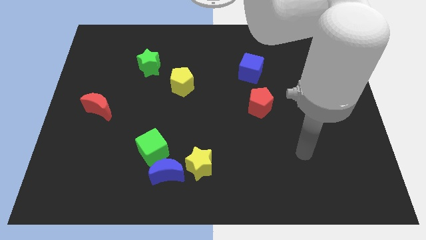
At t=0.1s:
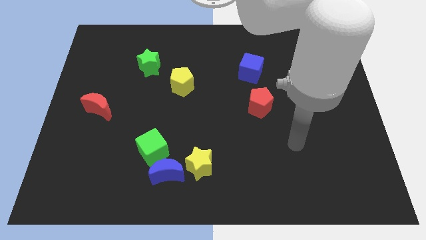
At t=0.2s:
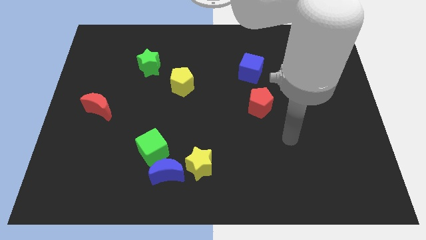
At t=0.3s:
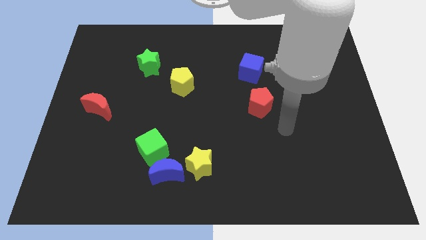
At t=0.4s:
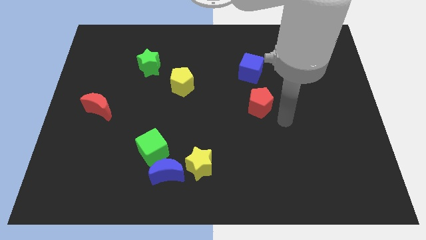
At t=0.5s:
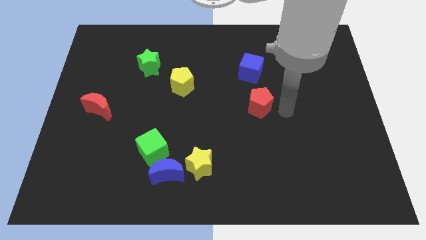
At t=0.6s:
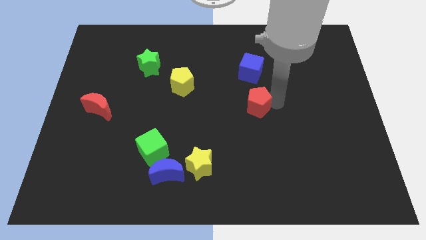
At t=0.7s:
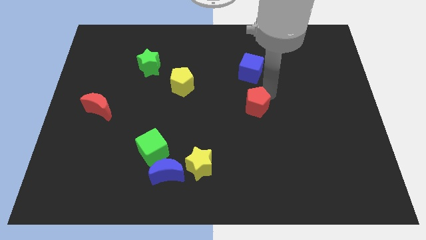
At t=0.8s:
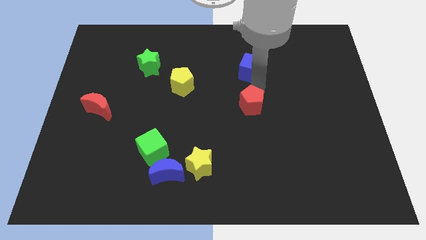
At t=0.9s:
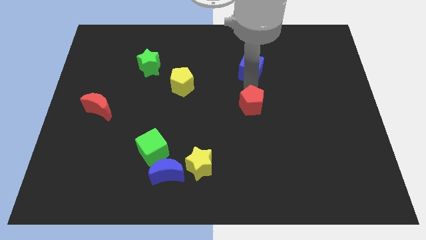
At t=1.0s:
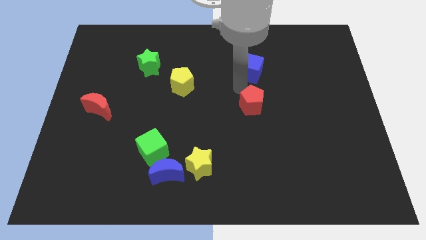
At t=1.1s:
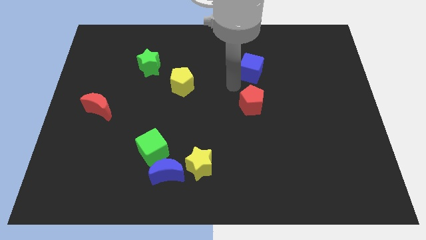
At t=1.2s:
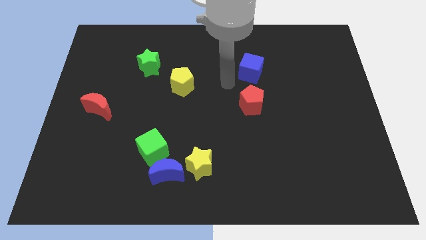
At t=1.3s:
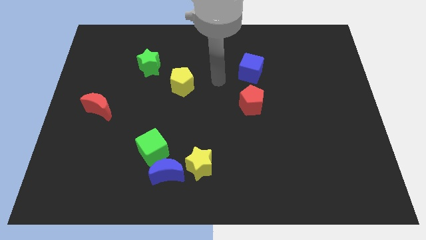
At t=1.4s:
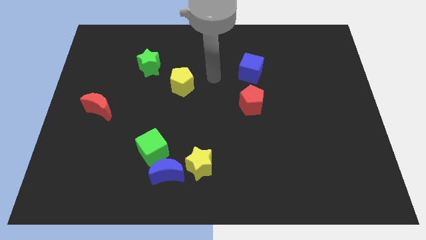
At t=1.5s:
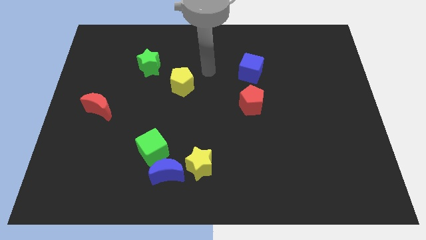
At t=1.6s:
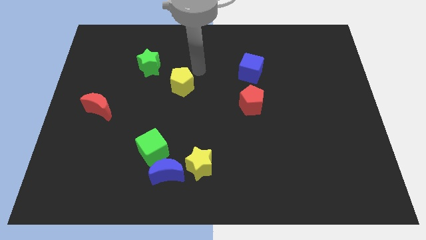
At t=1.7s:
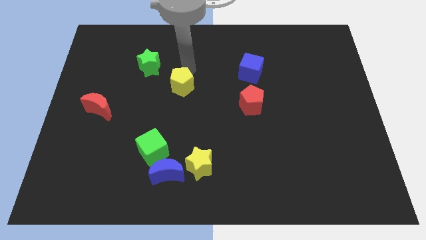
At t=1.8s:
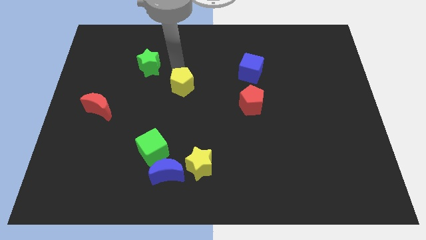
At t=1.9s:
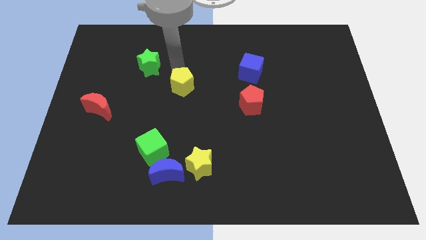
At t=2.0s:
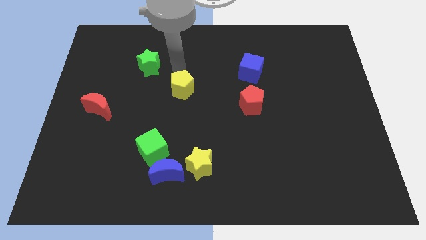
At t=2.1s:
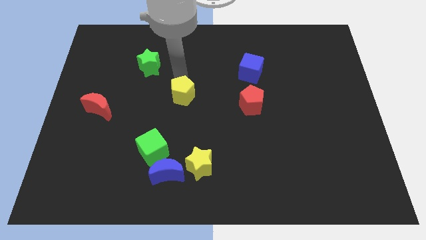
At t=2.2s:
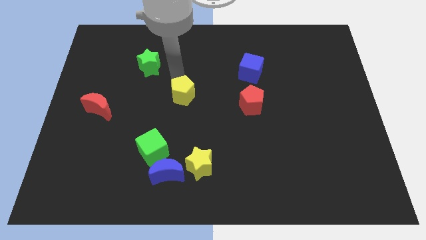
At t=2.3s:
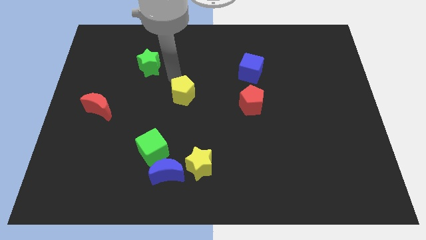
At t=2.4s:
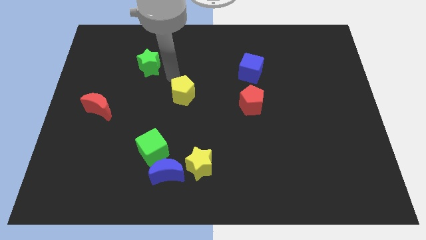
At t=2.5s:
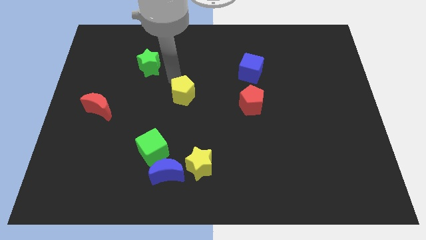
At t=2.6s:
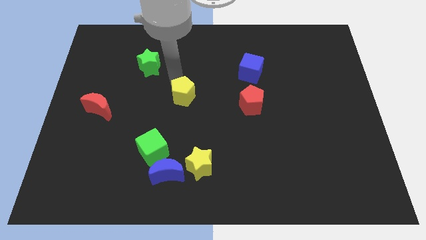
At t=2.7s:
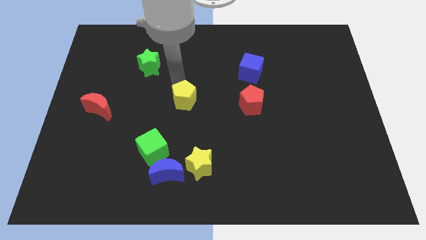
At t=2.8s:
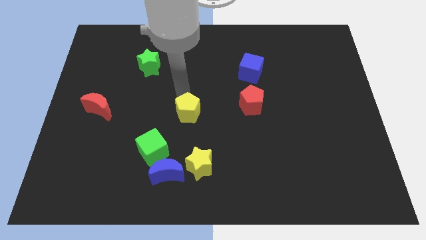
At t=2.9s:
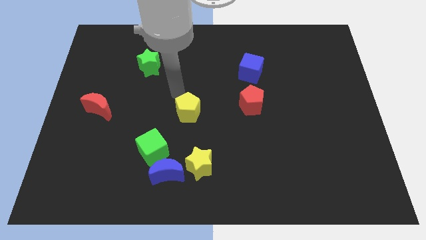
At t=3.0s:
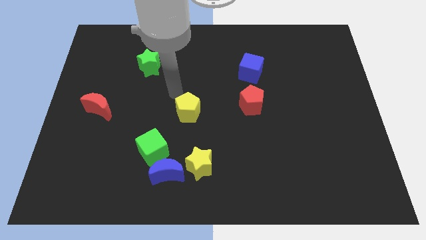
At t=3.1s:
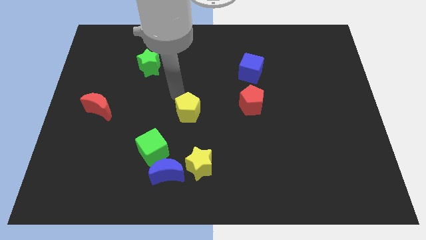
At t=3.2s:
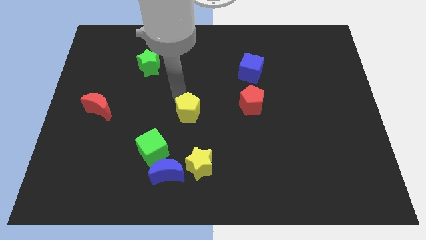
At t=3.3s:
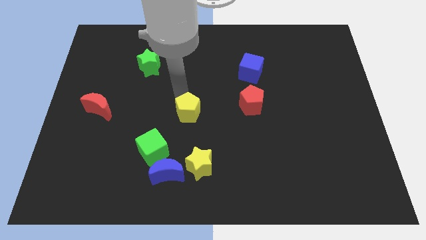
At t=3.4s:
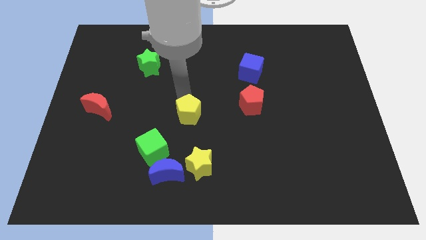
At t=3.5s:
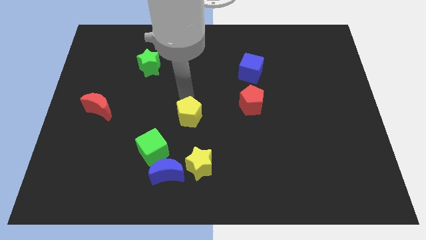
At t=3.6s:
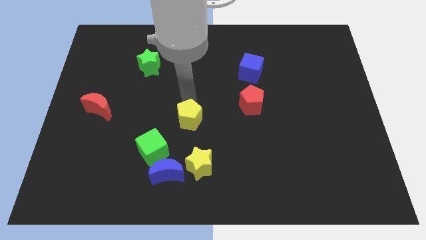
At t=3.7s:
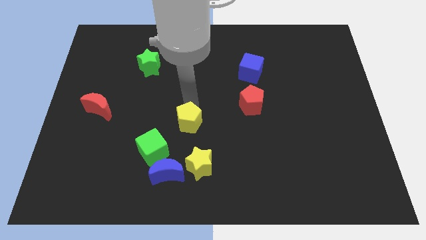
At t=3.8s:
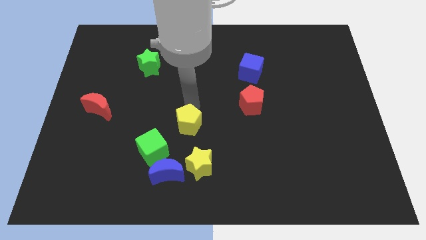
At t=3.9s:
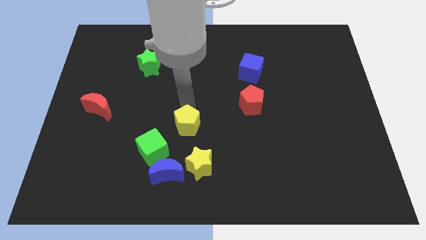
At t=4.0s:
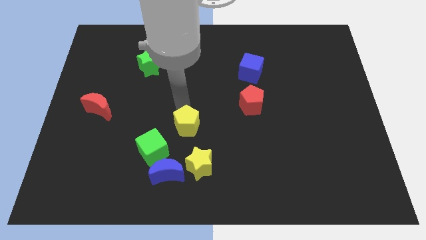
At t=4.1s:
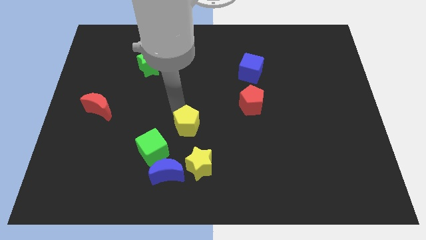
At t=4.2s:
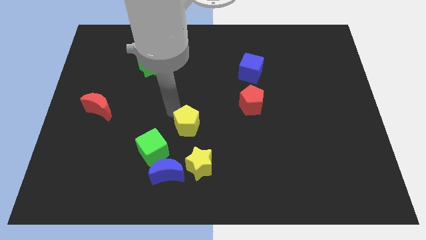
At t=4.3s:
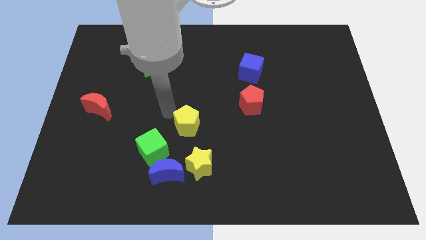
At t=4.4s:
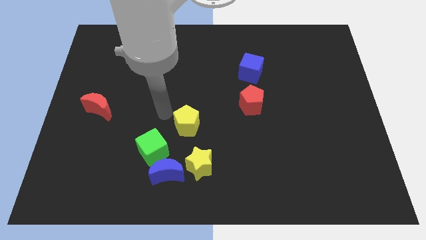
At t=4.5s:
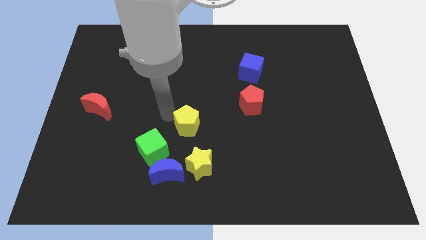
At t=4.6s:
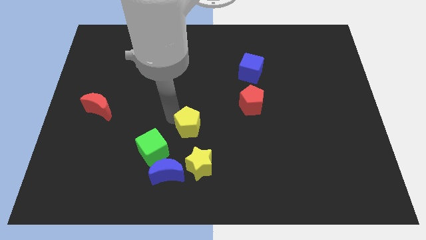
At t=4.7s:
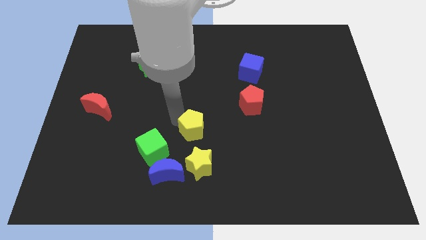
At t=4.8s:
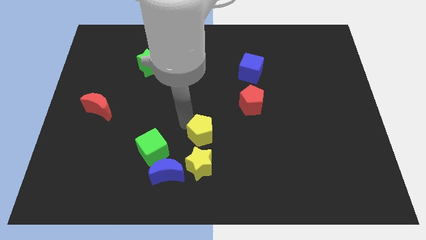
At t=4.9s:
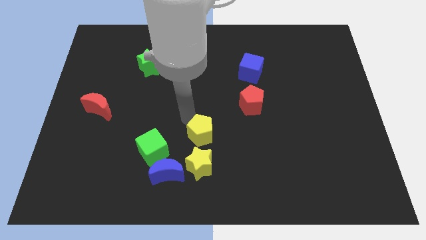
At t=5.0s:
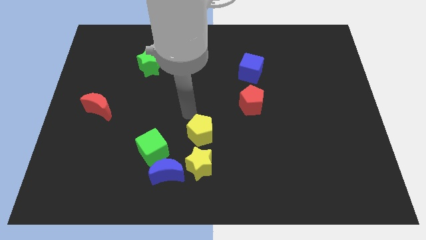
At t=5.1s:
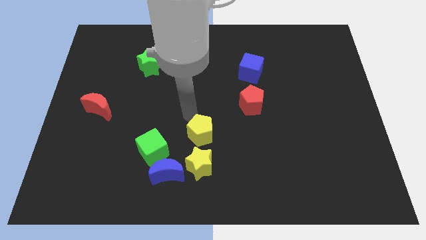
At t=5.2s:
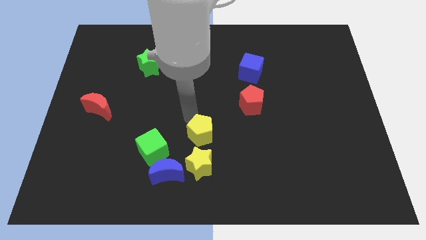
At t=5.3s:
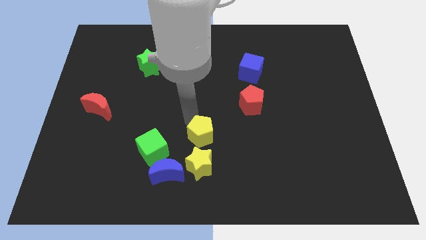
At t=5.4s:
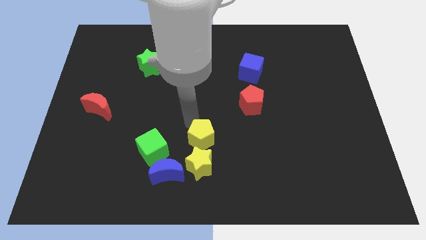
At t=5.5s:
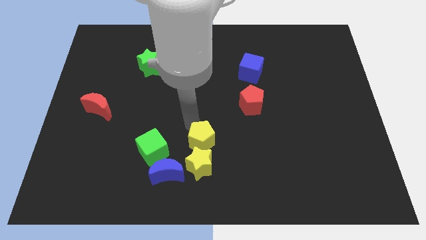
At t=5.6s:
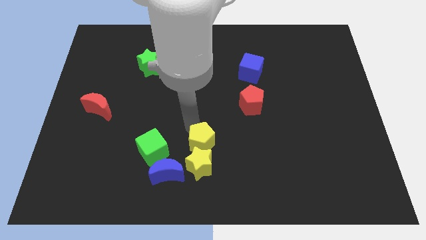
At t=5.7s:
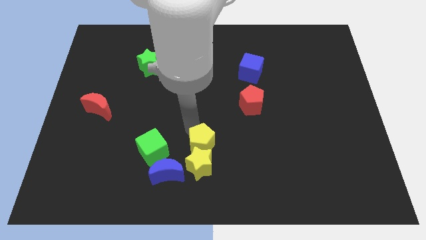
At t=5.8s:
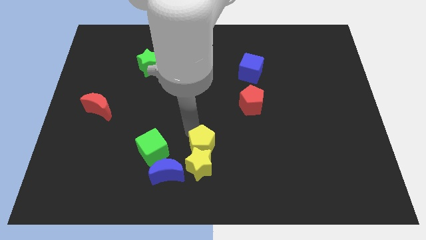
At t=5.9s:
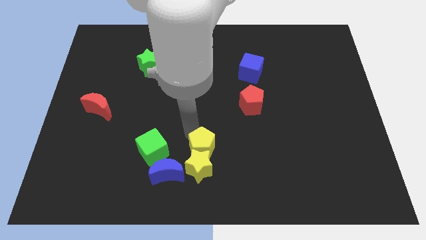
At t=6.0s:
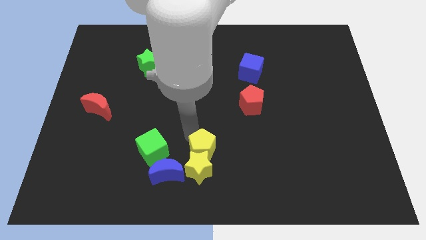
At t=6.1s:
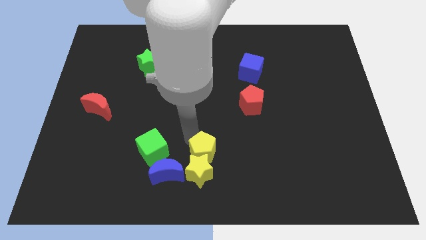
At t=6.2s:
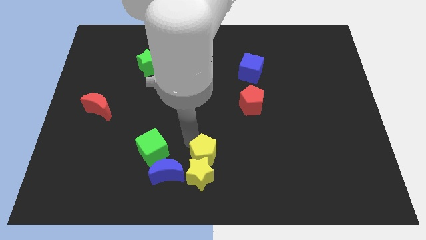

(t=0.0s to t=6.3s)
push the yellow pentagon to the bottom side

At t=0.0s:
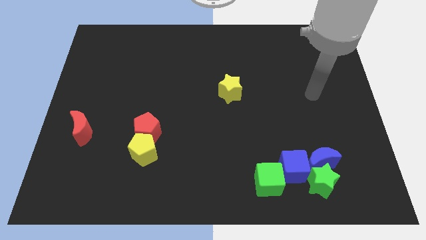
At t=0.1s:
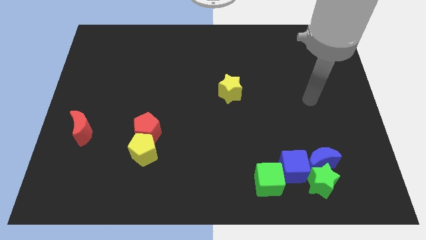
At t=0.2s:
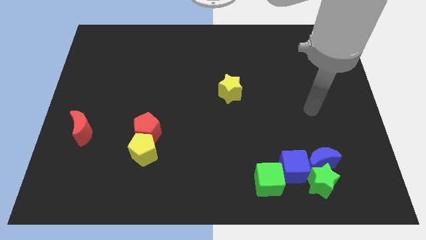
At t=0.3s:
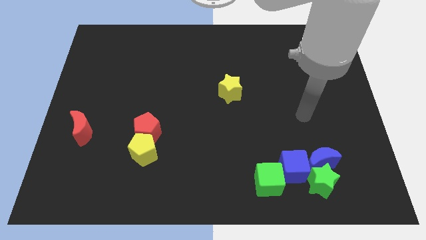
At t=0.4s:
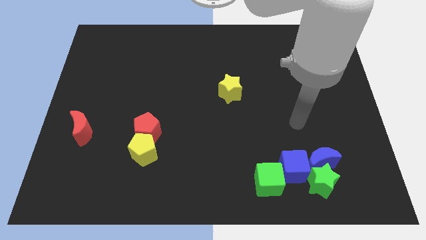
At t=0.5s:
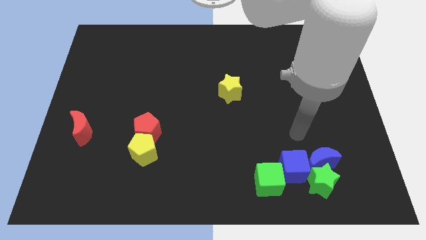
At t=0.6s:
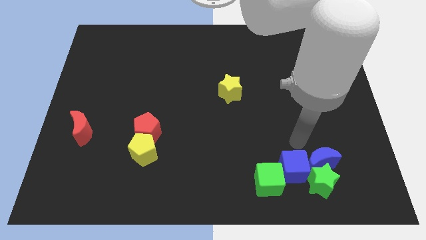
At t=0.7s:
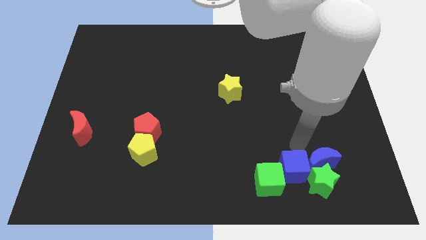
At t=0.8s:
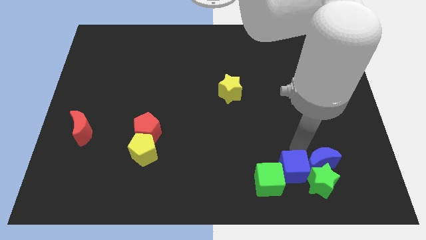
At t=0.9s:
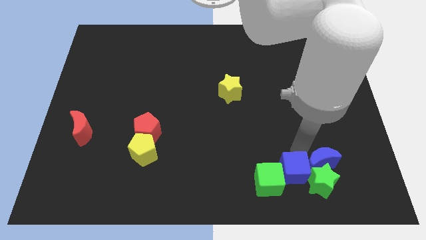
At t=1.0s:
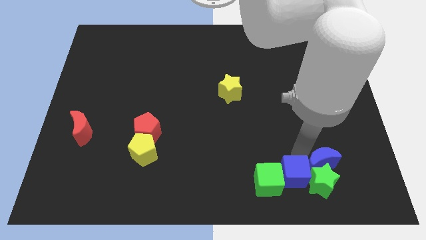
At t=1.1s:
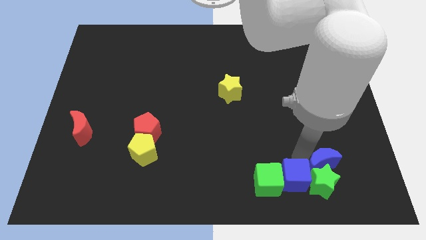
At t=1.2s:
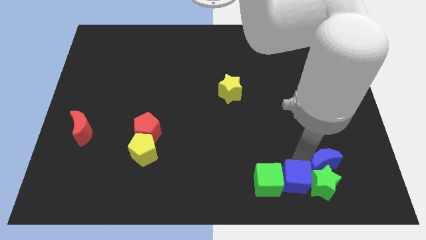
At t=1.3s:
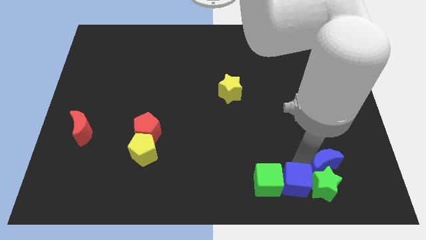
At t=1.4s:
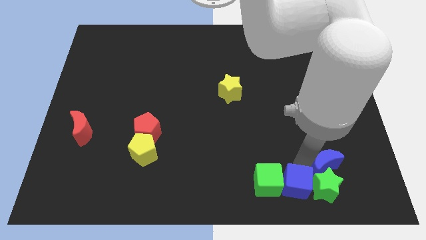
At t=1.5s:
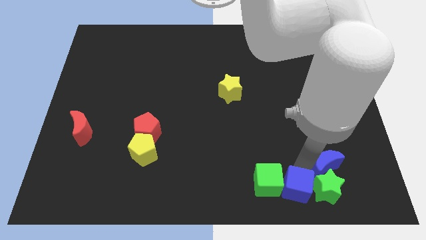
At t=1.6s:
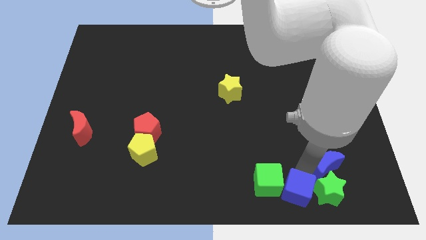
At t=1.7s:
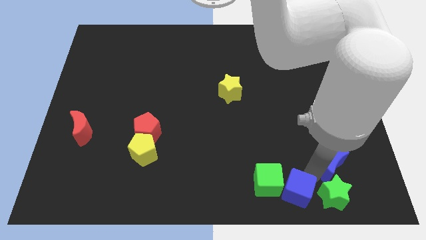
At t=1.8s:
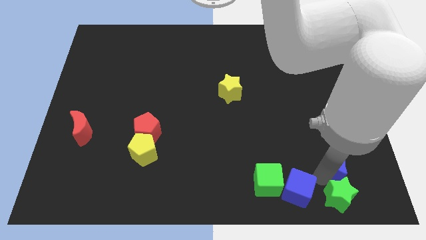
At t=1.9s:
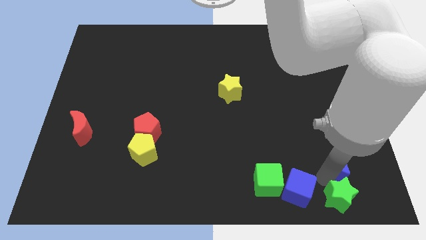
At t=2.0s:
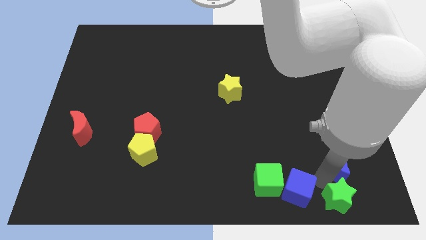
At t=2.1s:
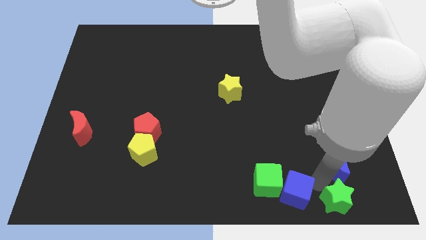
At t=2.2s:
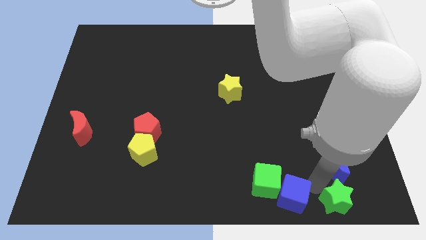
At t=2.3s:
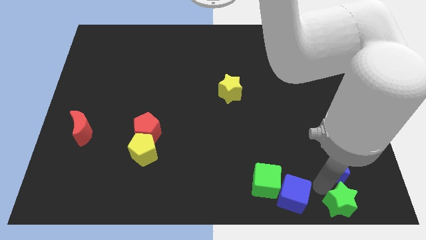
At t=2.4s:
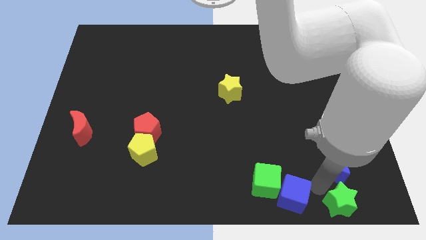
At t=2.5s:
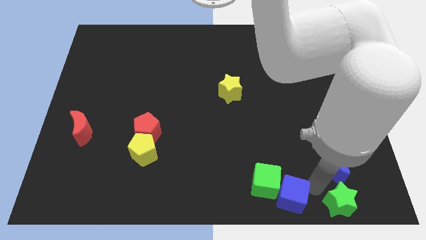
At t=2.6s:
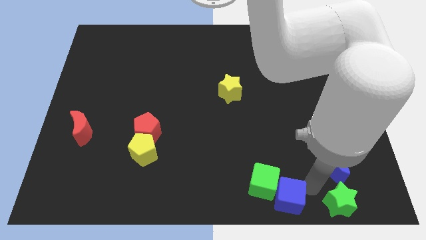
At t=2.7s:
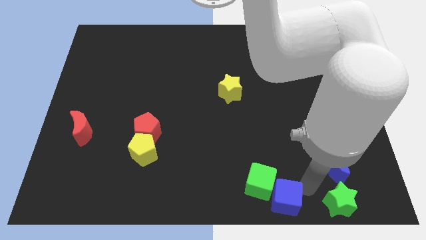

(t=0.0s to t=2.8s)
put the blue cube to the bottom
